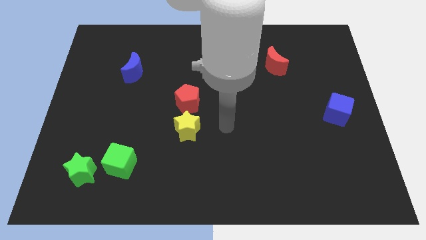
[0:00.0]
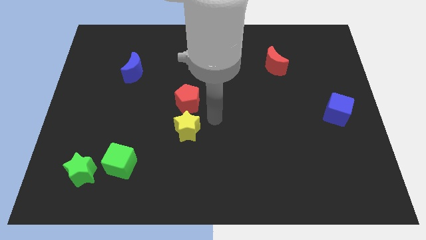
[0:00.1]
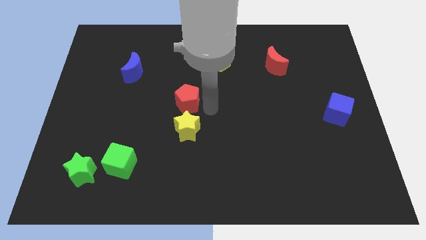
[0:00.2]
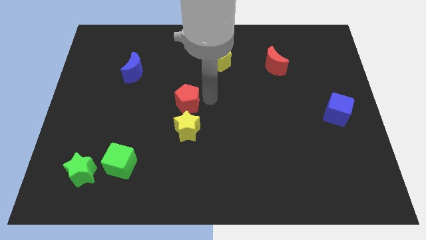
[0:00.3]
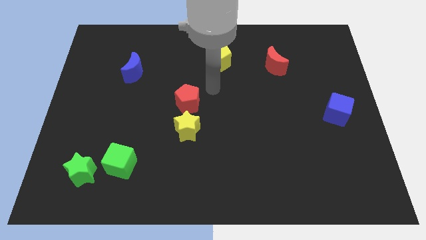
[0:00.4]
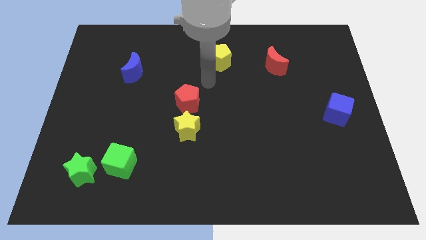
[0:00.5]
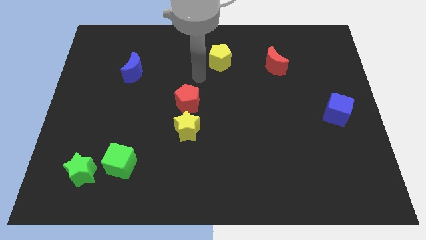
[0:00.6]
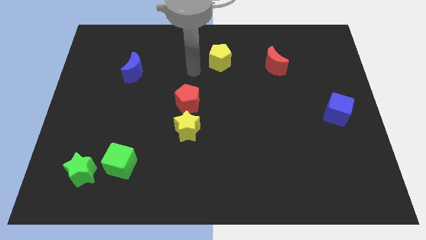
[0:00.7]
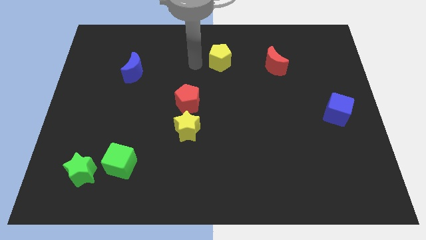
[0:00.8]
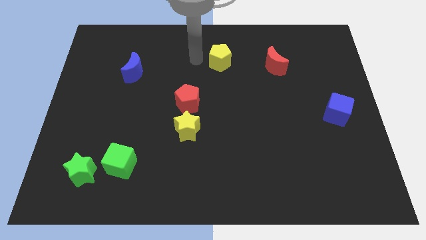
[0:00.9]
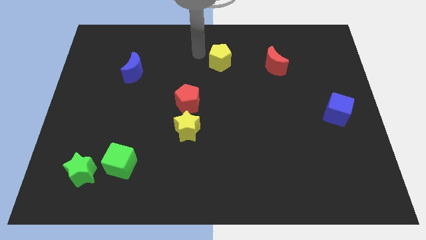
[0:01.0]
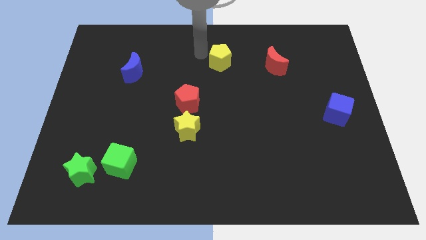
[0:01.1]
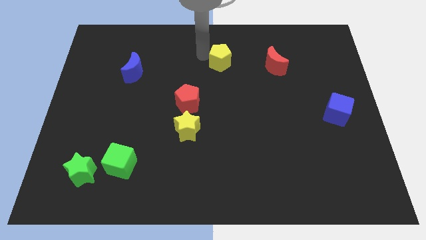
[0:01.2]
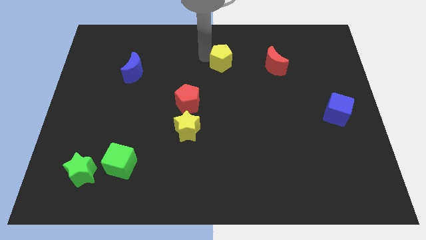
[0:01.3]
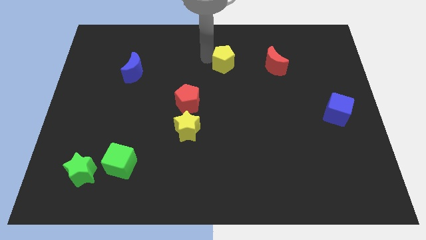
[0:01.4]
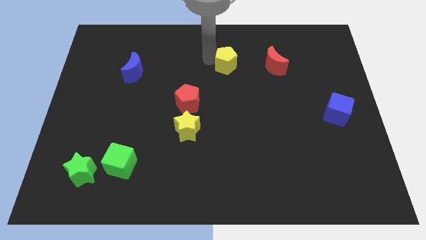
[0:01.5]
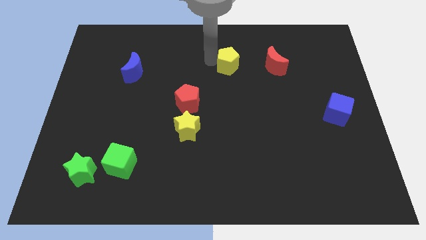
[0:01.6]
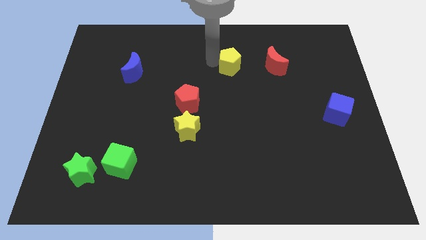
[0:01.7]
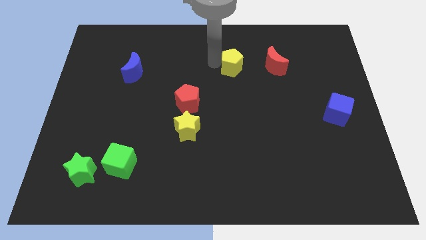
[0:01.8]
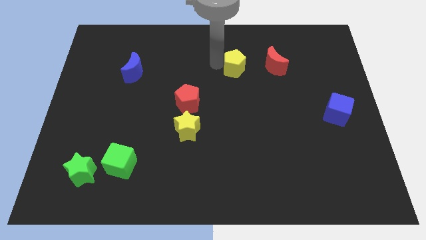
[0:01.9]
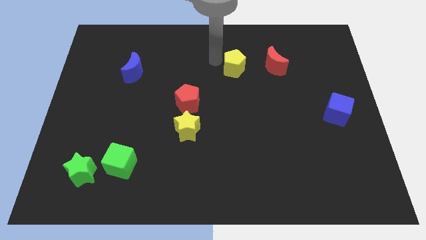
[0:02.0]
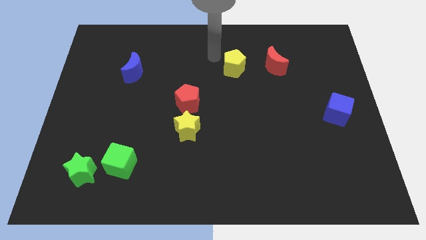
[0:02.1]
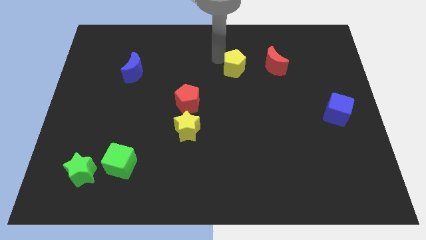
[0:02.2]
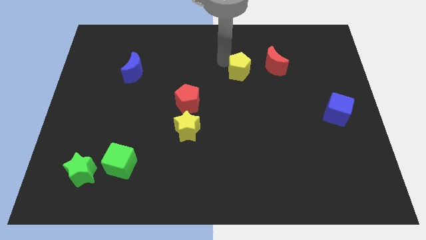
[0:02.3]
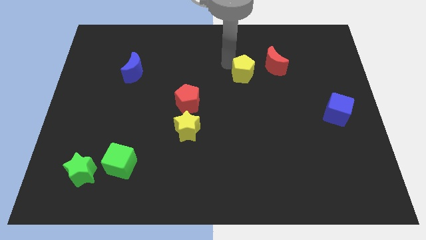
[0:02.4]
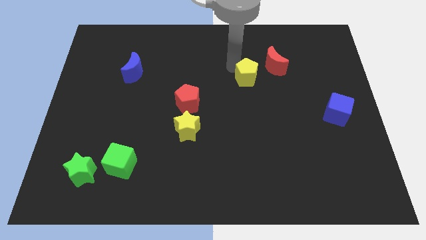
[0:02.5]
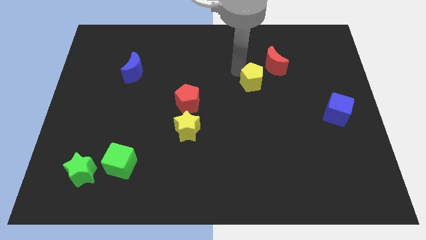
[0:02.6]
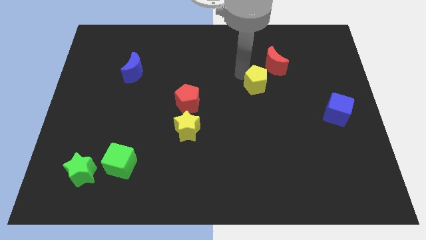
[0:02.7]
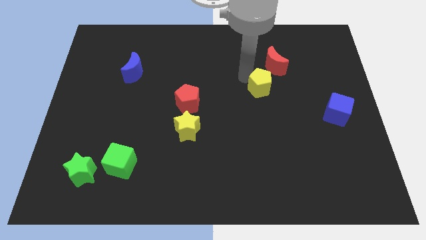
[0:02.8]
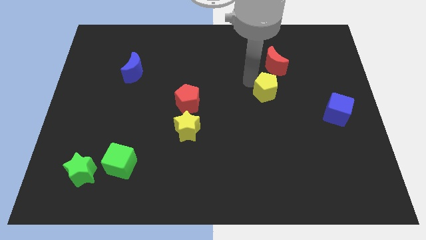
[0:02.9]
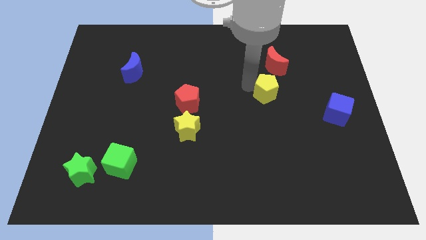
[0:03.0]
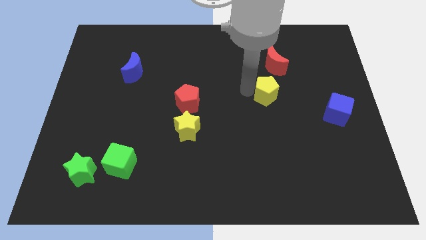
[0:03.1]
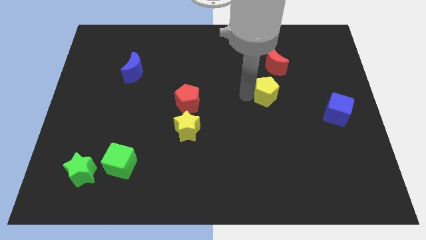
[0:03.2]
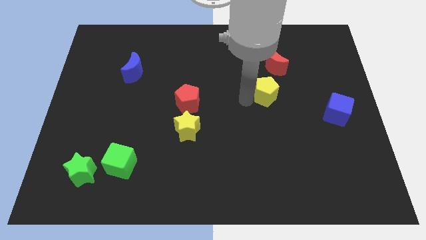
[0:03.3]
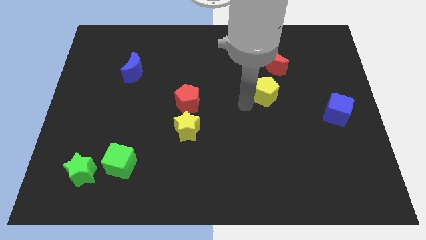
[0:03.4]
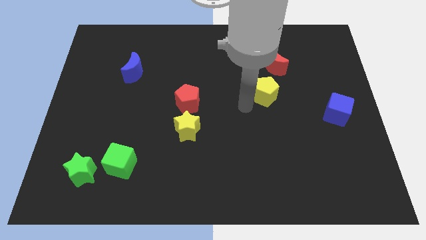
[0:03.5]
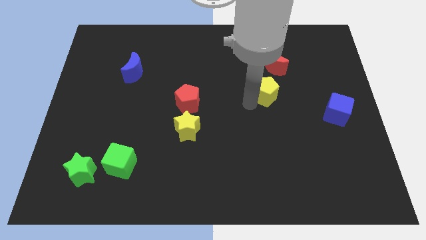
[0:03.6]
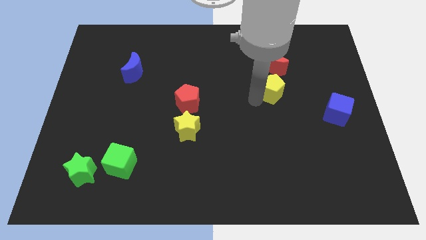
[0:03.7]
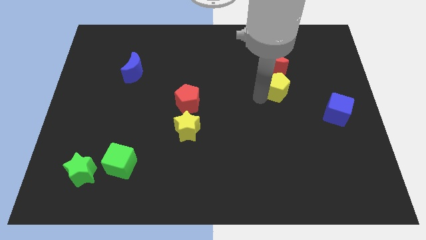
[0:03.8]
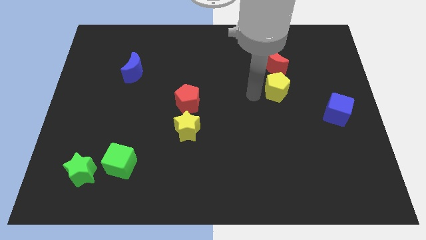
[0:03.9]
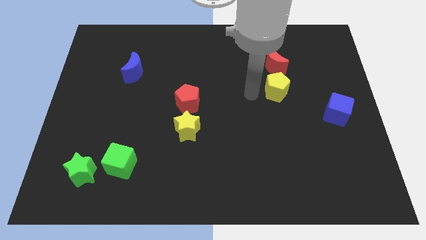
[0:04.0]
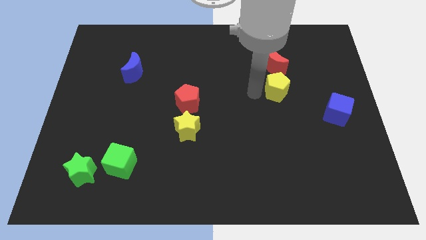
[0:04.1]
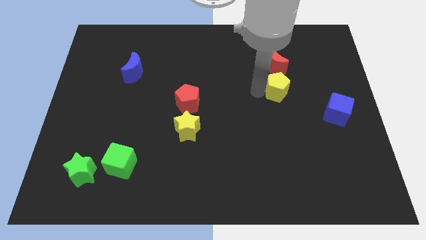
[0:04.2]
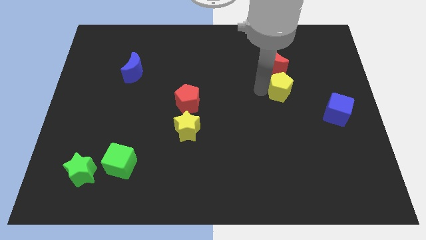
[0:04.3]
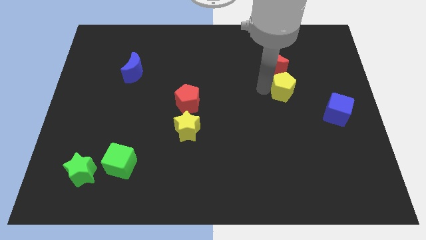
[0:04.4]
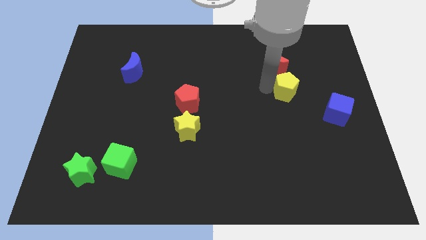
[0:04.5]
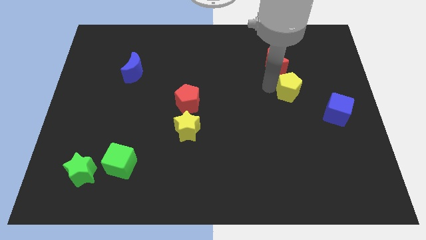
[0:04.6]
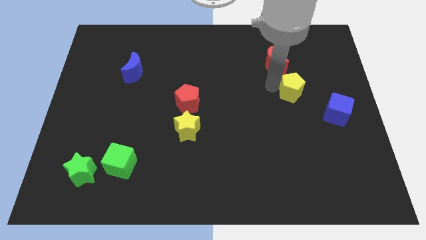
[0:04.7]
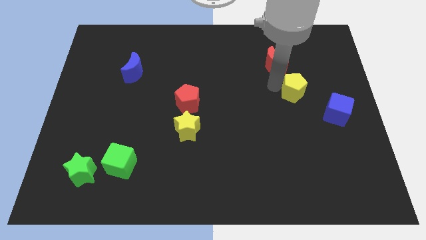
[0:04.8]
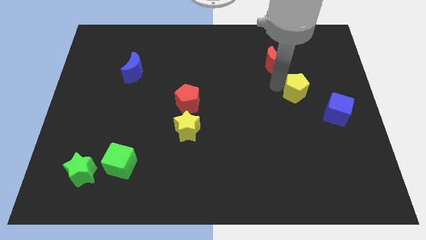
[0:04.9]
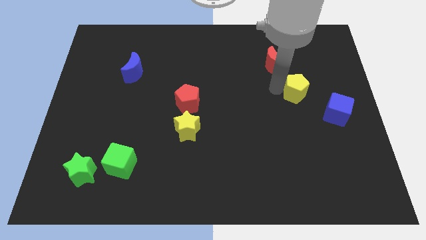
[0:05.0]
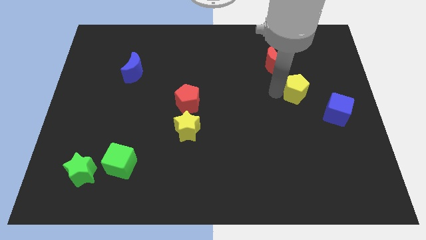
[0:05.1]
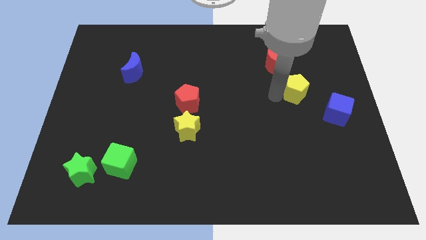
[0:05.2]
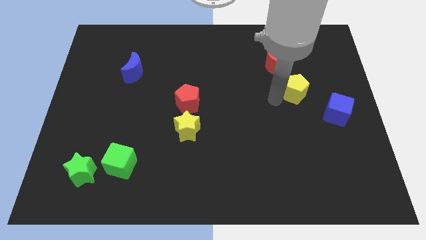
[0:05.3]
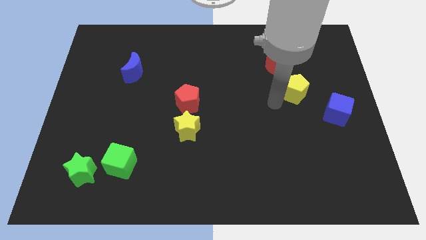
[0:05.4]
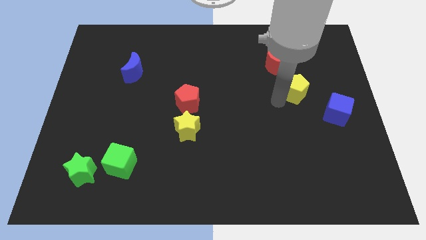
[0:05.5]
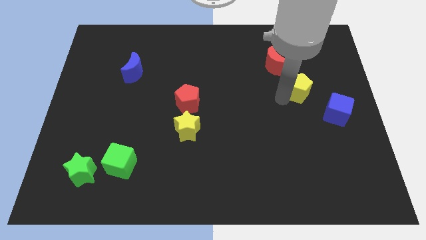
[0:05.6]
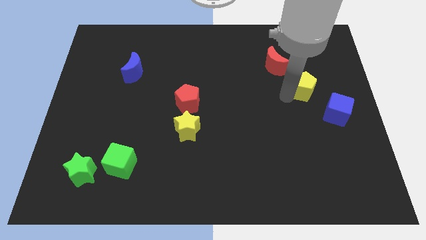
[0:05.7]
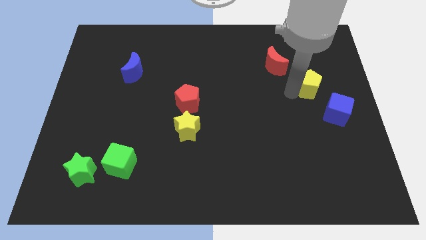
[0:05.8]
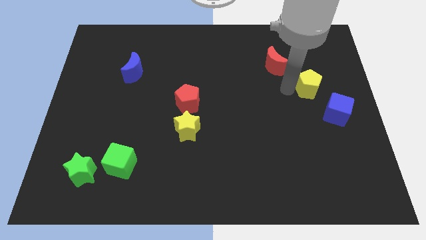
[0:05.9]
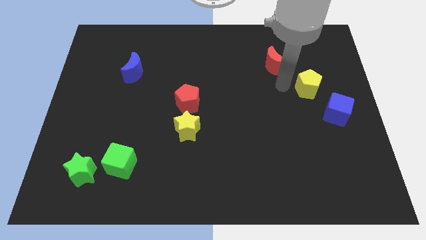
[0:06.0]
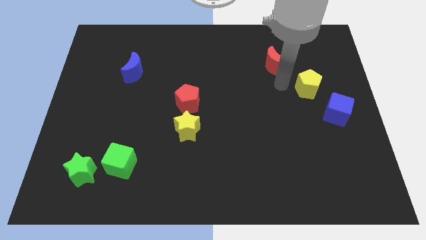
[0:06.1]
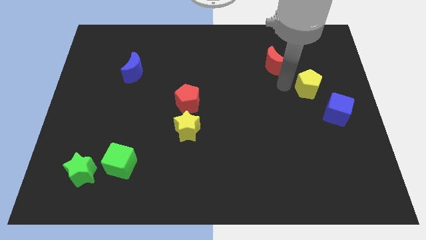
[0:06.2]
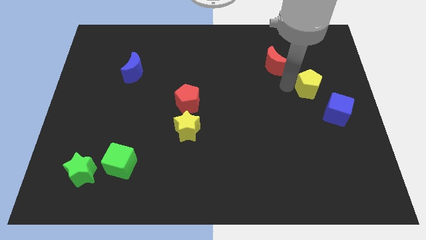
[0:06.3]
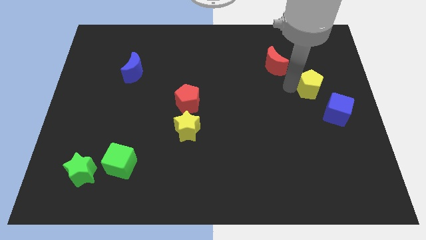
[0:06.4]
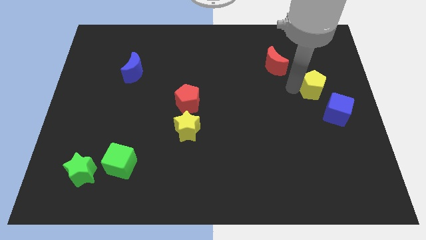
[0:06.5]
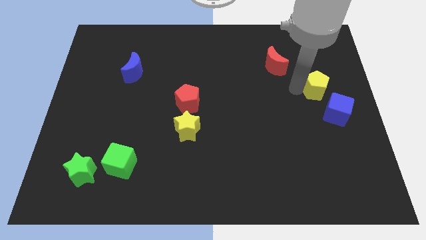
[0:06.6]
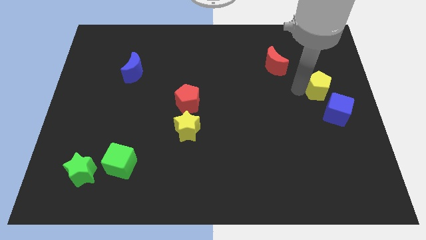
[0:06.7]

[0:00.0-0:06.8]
move the yellow pentagon to the center right
